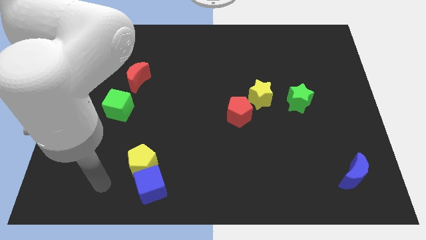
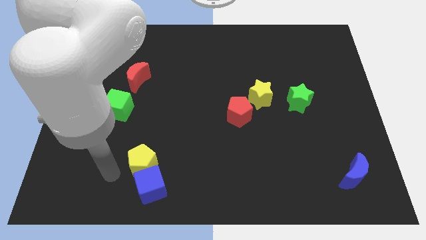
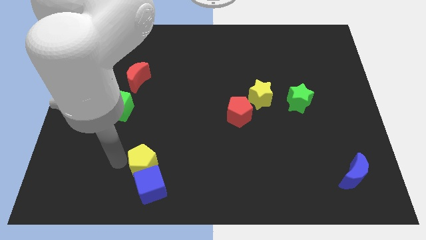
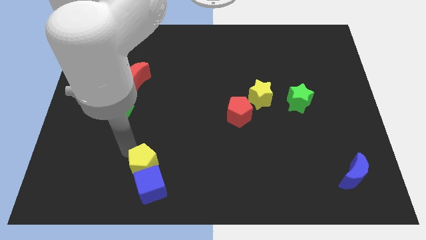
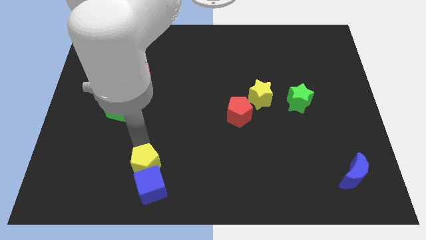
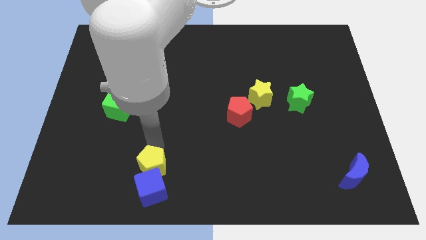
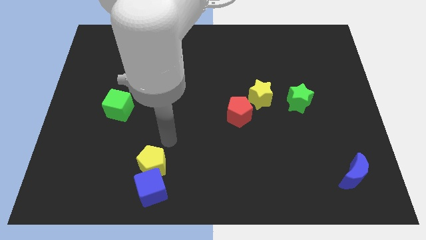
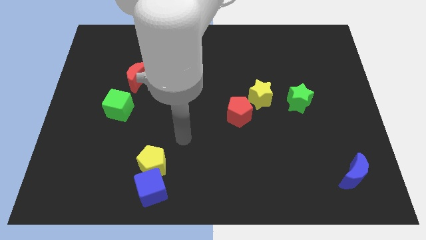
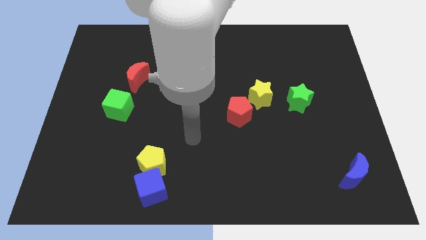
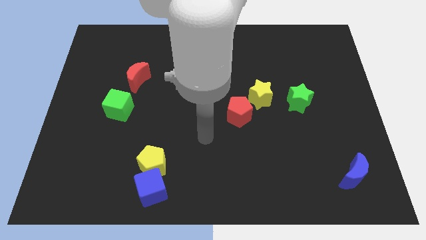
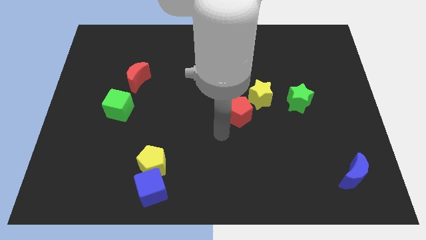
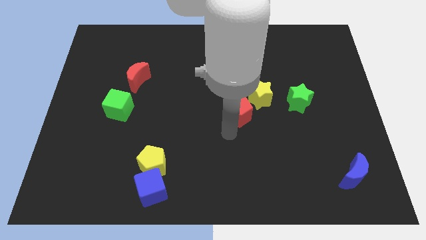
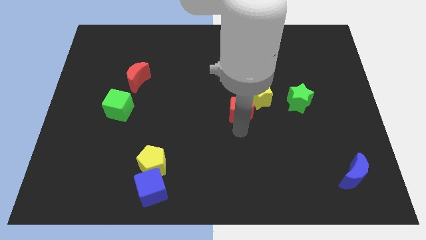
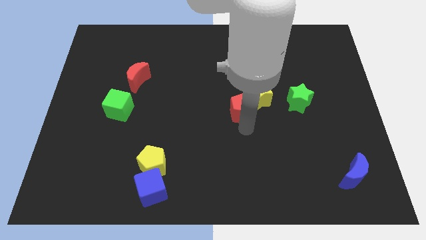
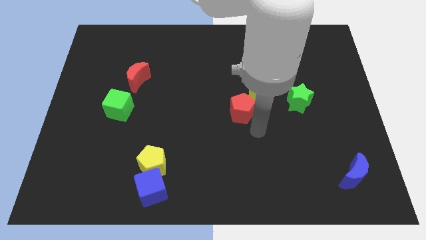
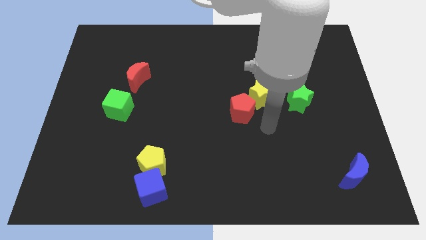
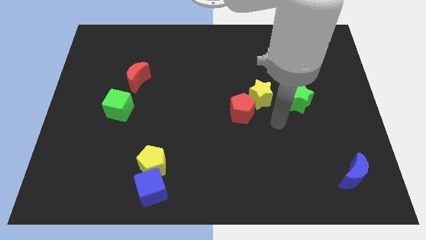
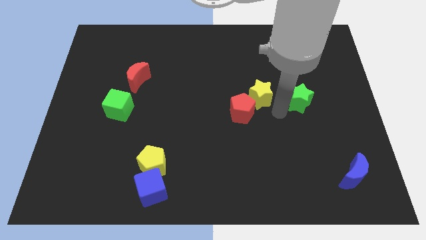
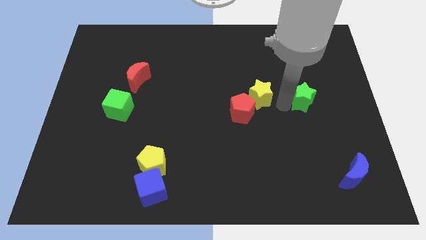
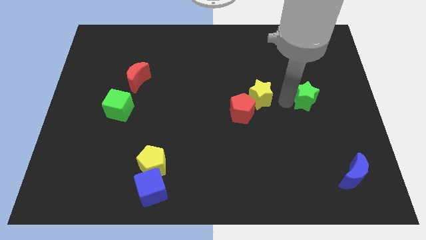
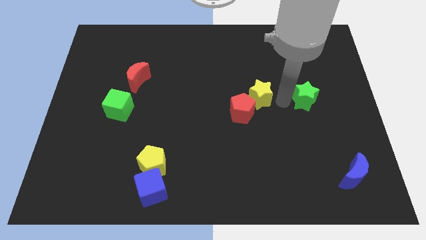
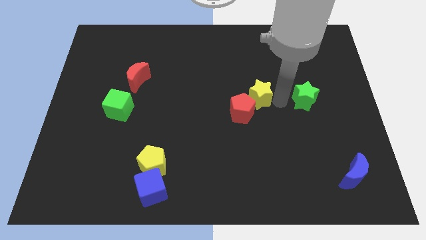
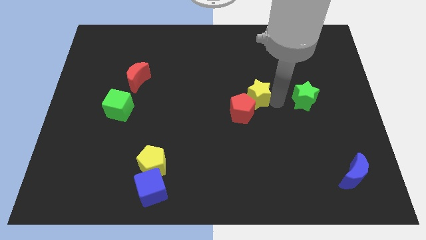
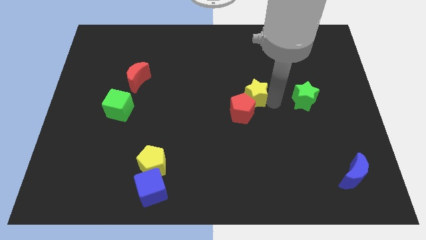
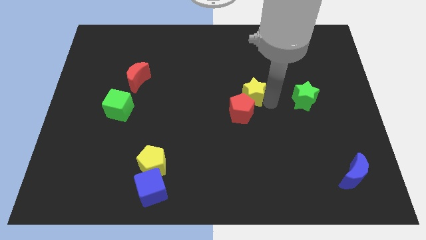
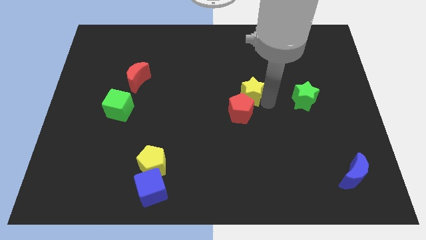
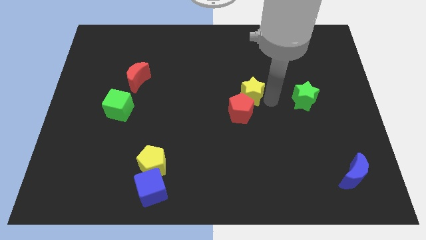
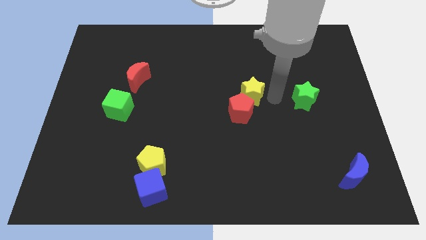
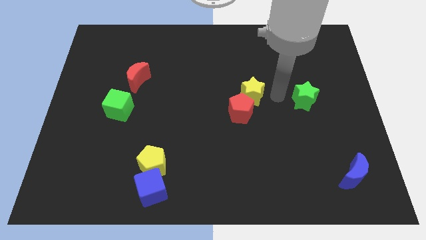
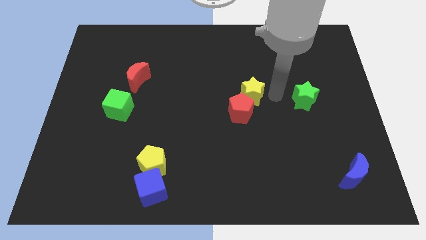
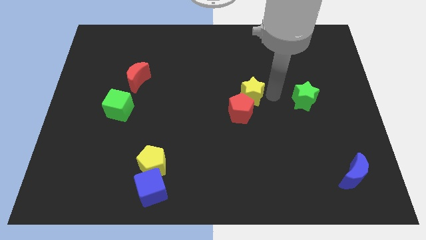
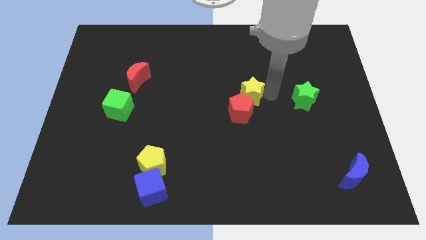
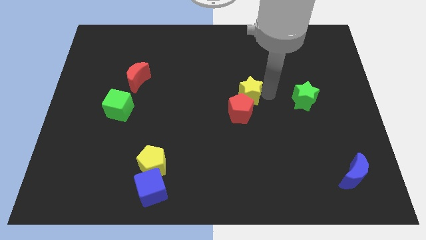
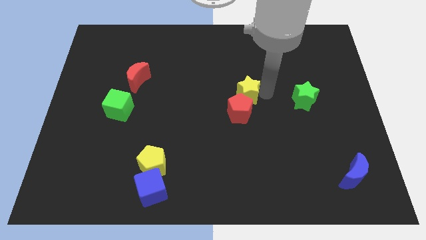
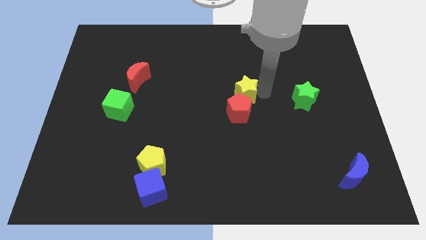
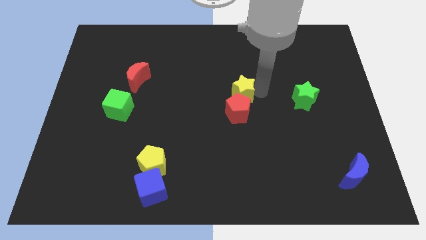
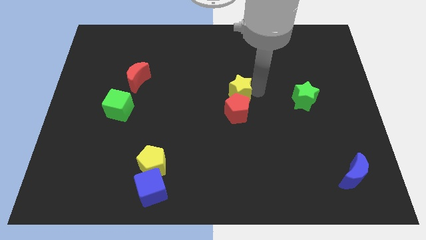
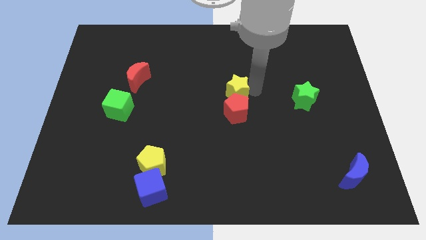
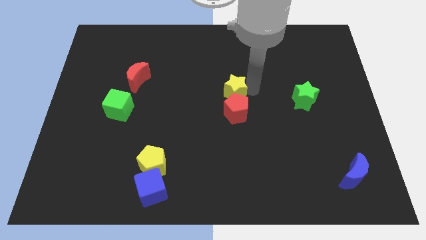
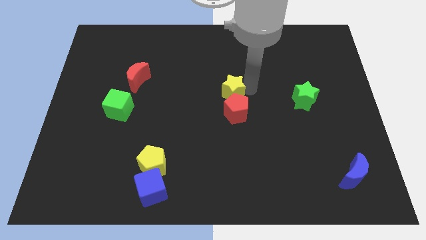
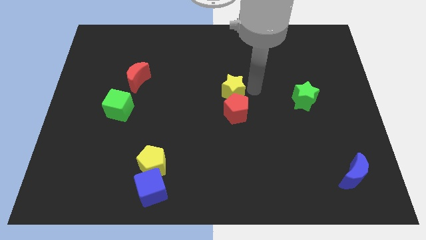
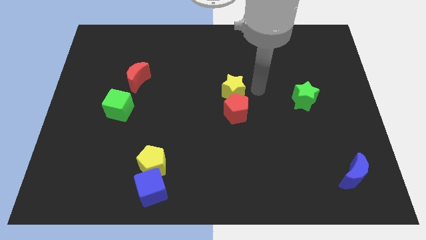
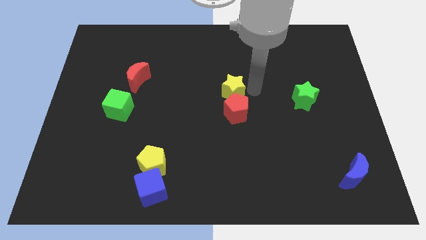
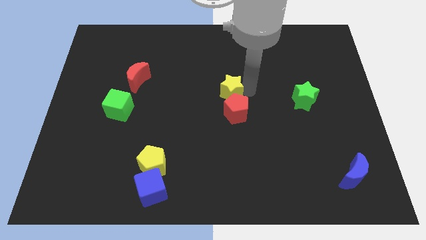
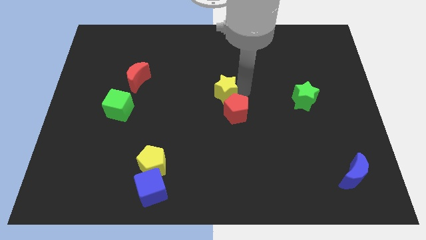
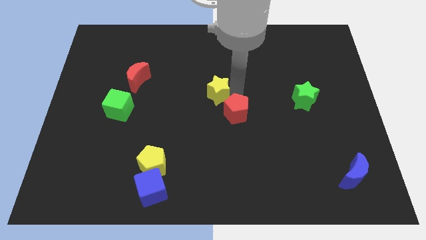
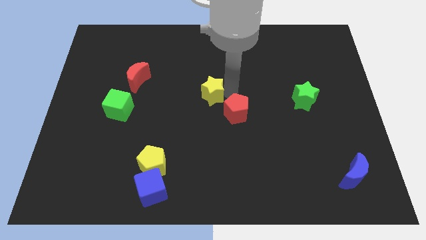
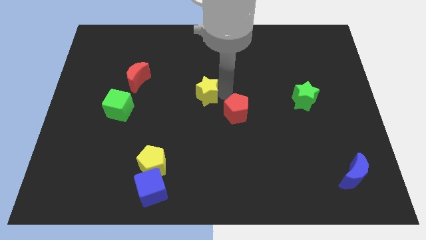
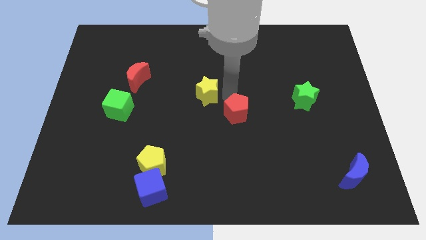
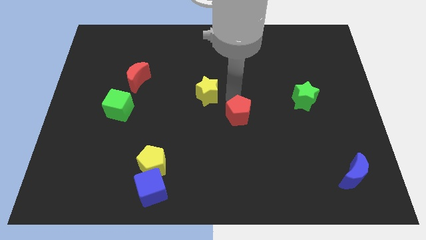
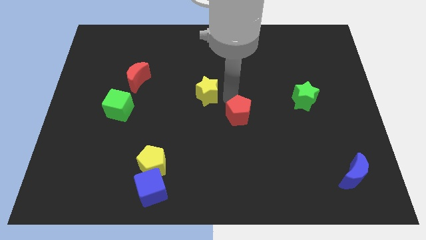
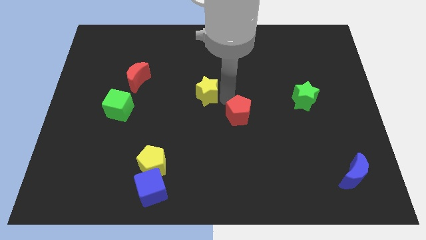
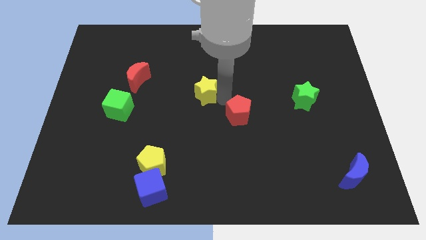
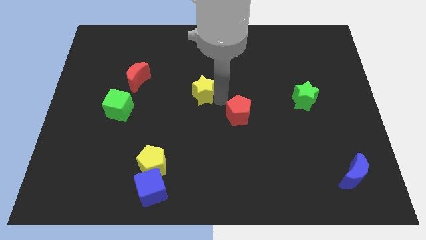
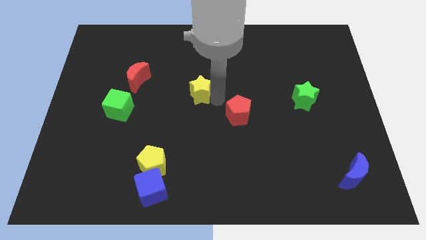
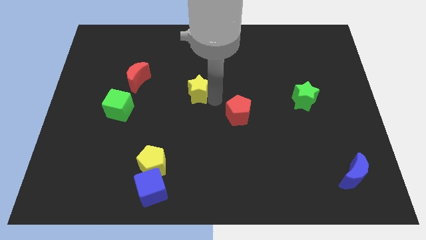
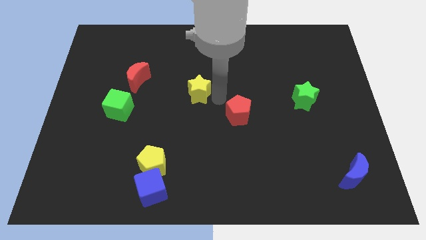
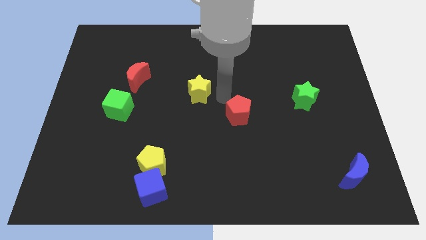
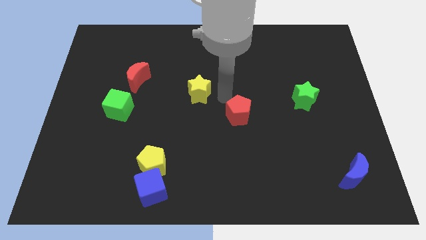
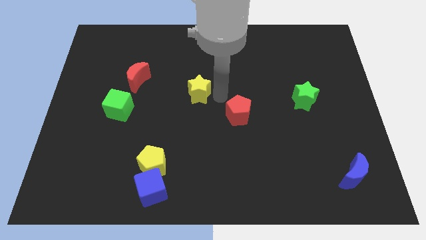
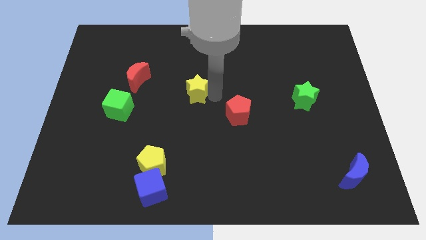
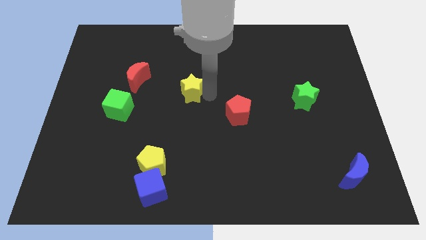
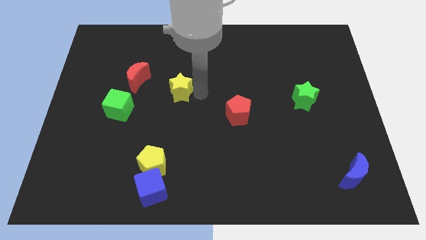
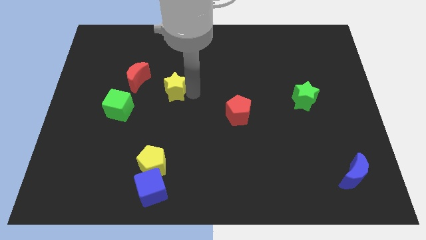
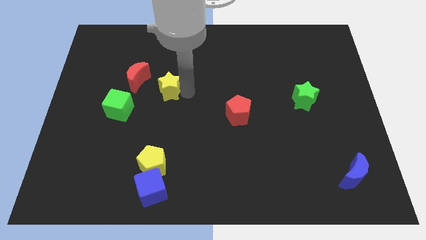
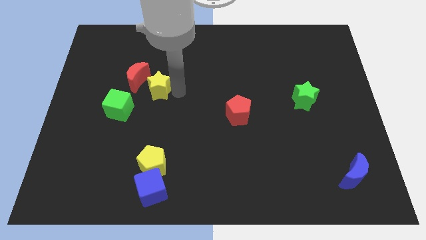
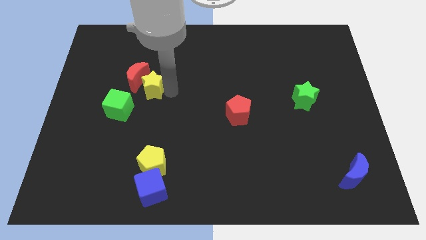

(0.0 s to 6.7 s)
move the yellow star next to the red moon

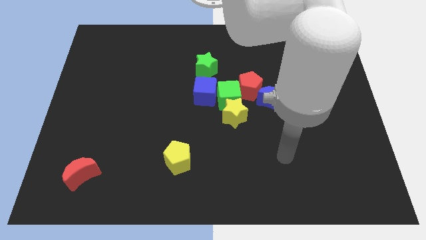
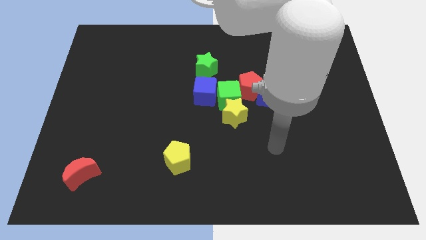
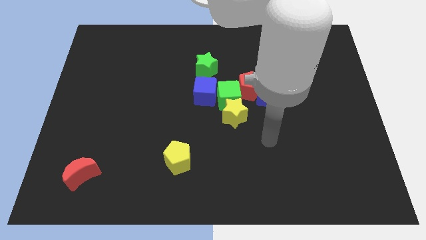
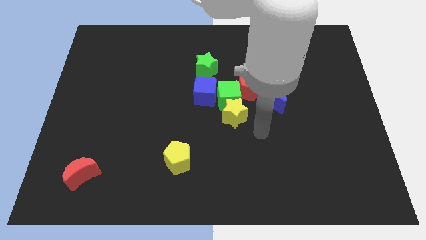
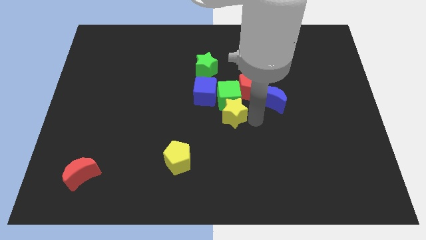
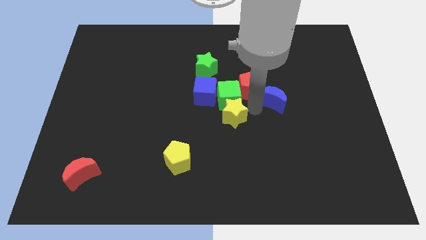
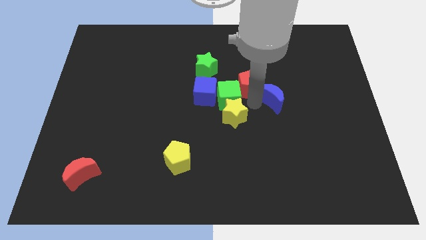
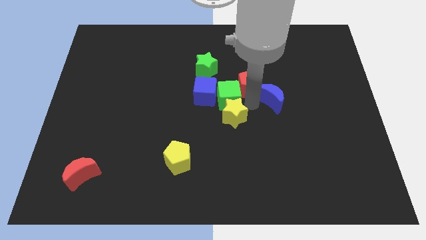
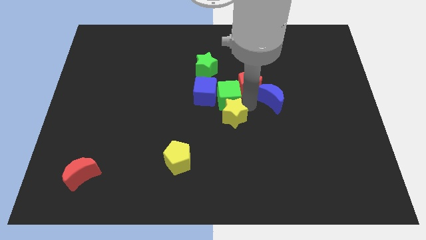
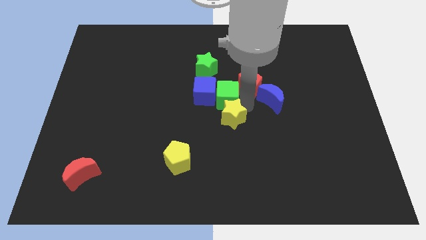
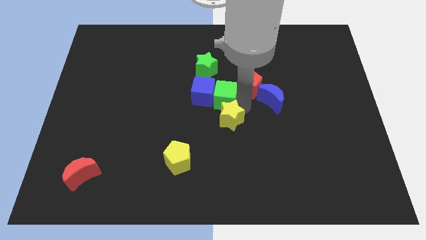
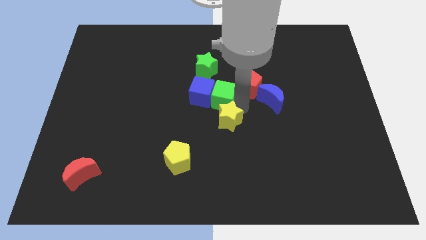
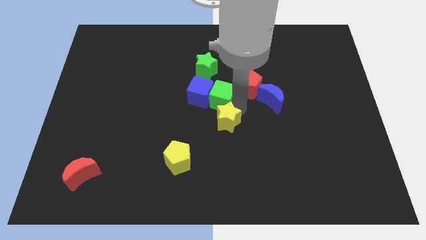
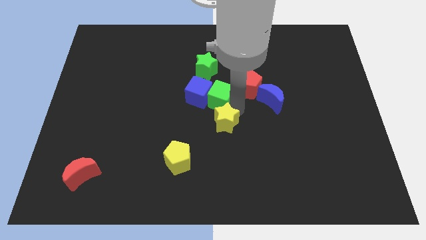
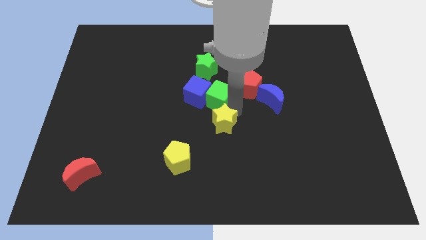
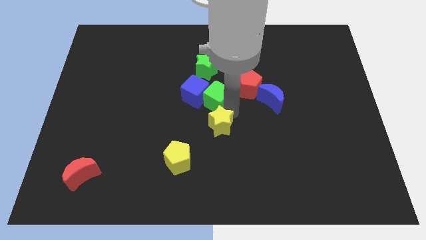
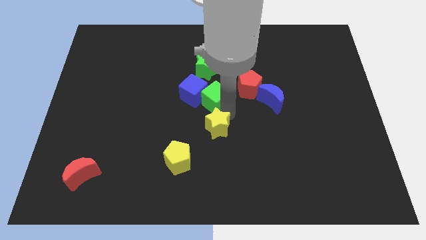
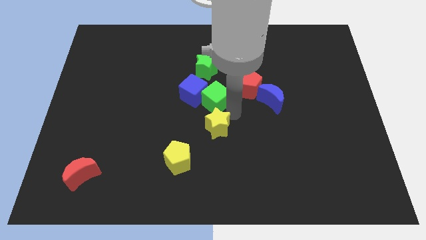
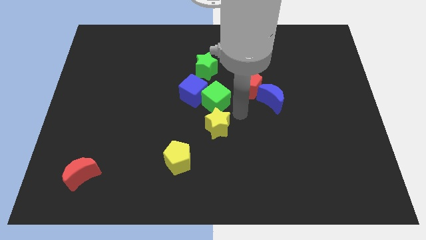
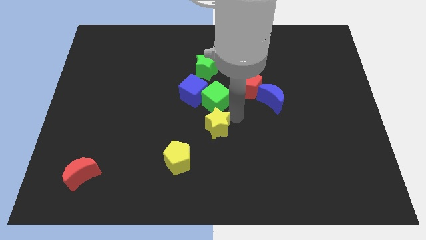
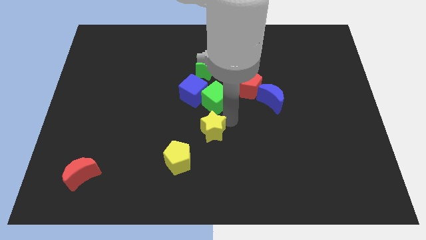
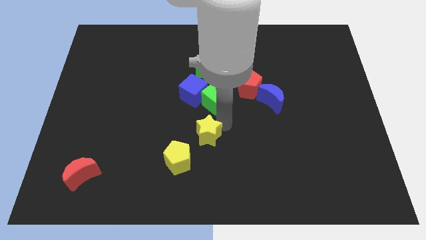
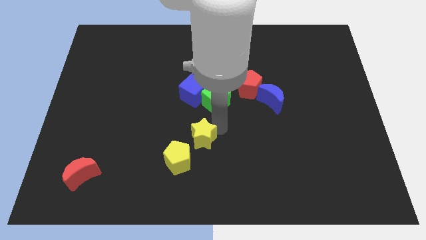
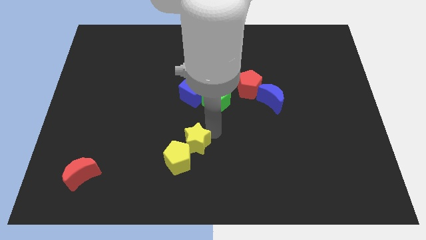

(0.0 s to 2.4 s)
put the yellow star to the yellow pentagon
